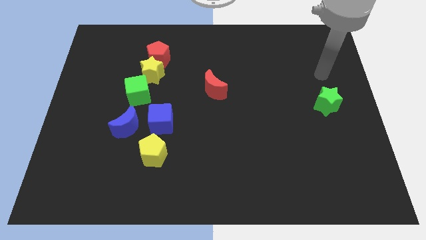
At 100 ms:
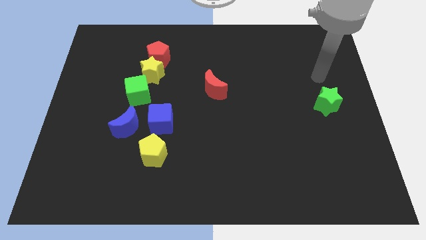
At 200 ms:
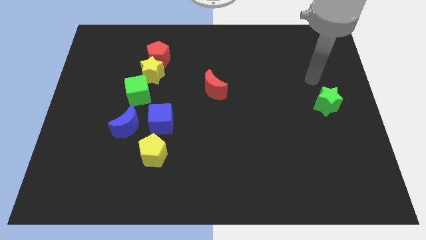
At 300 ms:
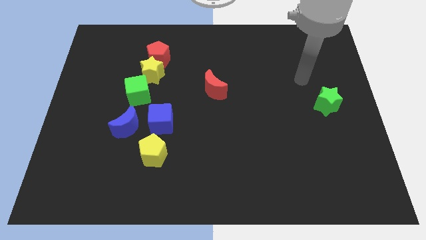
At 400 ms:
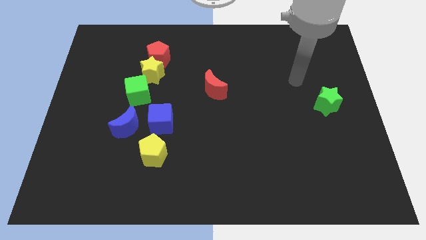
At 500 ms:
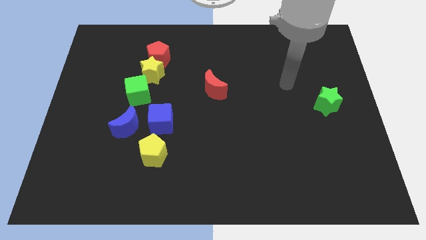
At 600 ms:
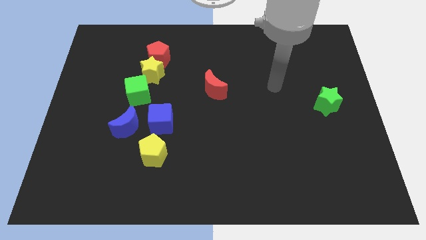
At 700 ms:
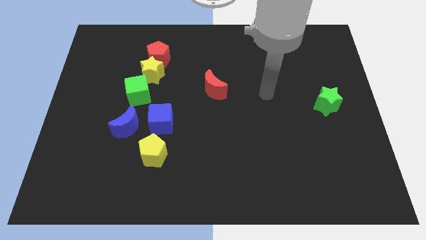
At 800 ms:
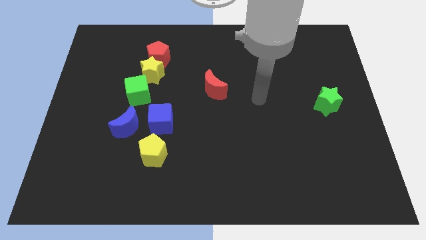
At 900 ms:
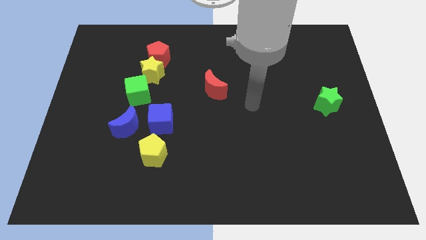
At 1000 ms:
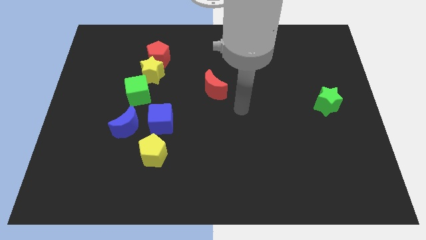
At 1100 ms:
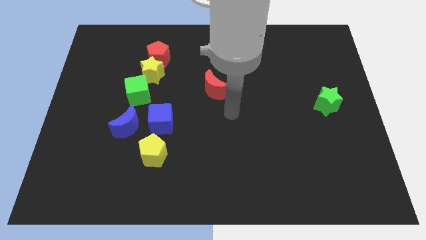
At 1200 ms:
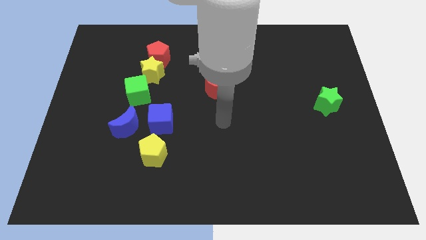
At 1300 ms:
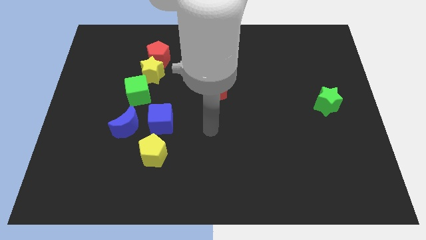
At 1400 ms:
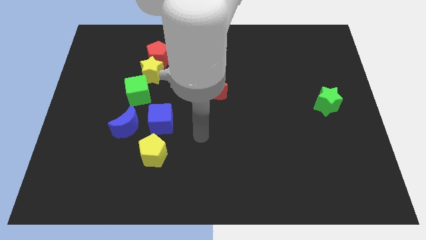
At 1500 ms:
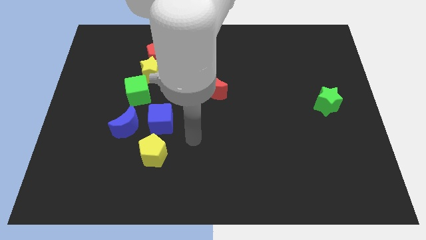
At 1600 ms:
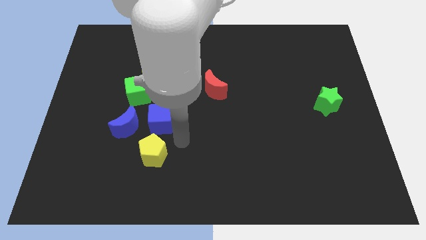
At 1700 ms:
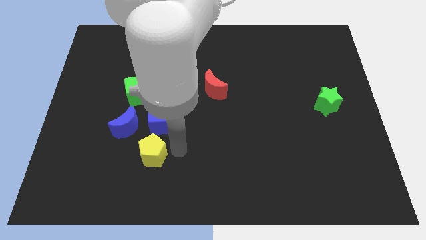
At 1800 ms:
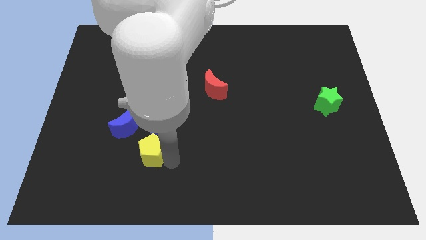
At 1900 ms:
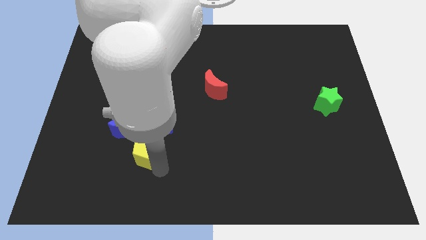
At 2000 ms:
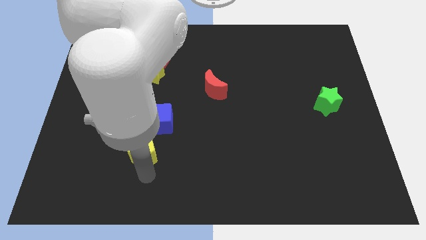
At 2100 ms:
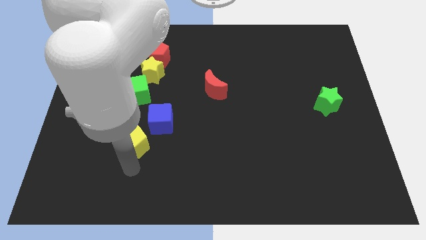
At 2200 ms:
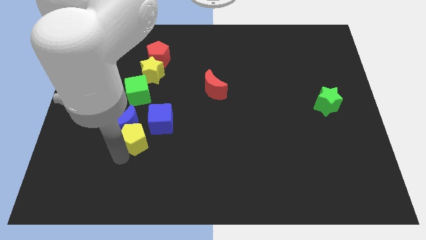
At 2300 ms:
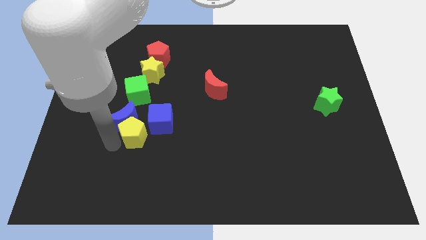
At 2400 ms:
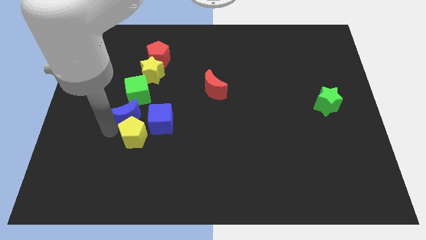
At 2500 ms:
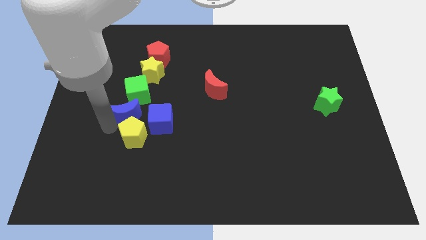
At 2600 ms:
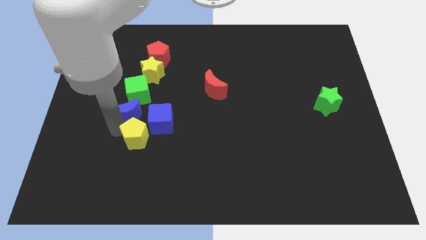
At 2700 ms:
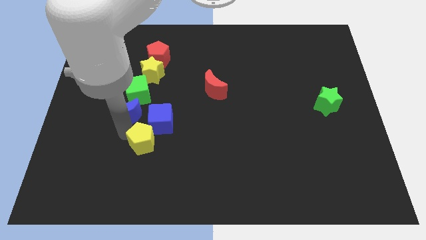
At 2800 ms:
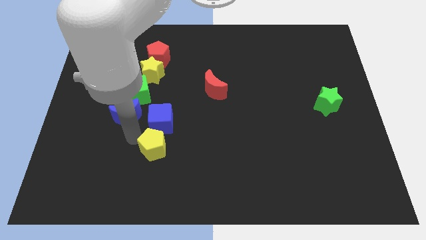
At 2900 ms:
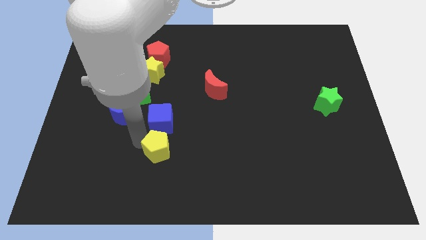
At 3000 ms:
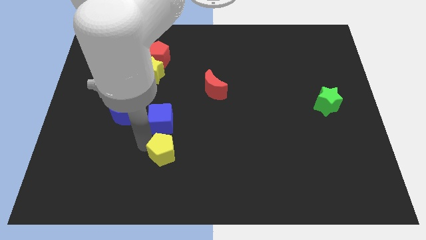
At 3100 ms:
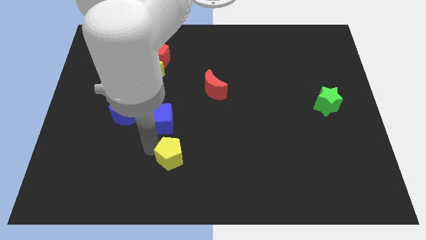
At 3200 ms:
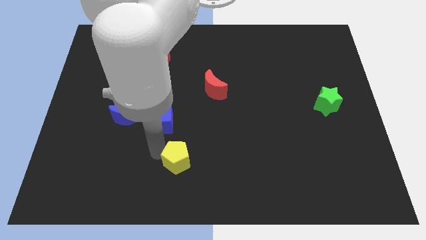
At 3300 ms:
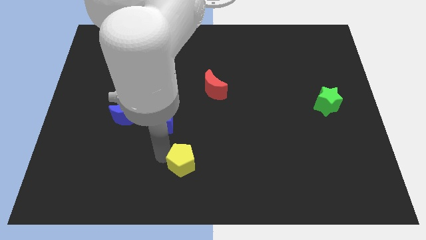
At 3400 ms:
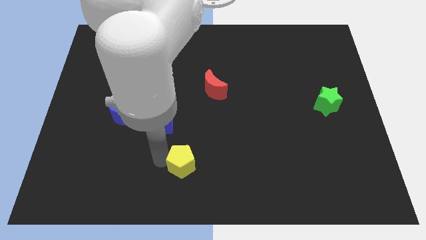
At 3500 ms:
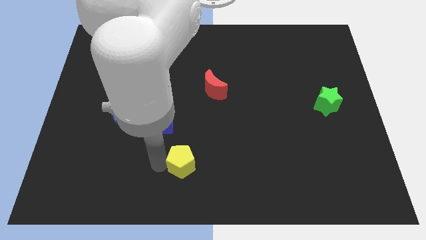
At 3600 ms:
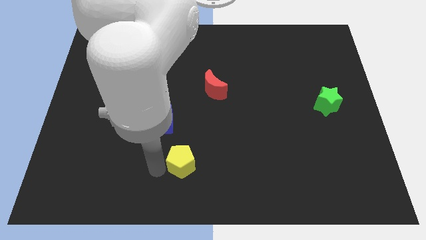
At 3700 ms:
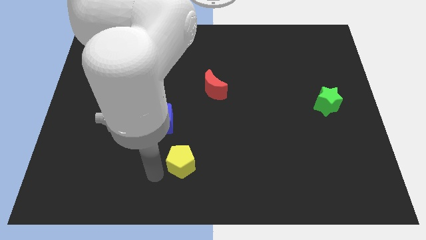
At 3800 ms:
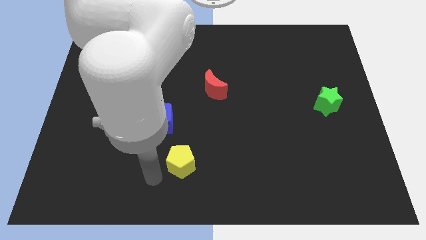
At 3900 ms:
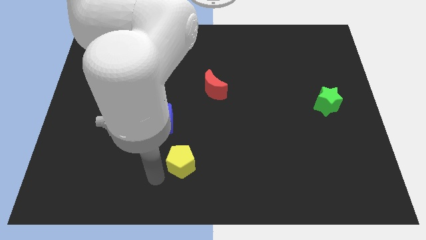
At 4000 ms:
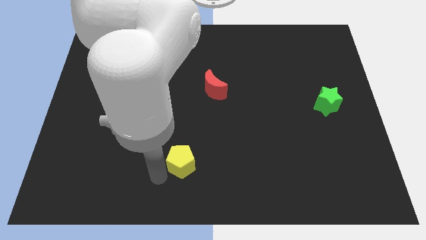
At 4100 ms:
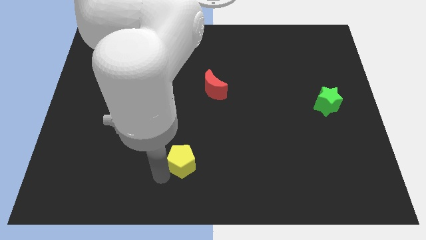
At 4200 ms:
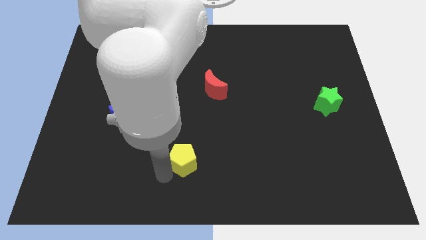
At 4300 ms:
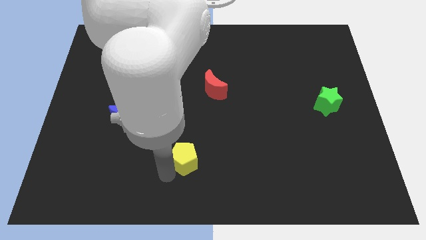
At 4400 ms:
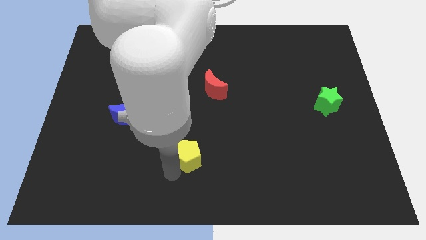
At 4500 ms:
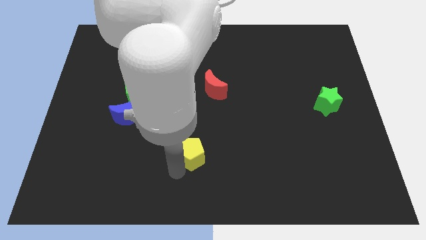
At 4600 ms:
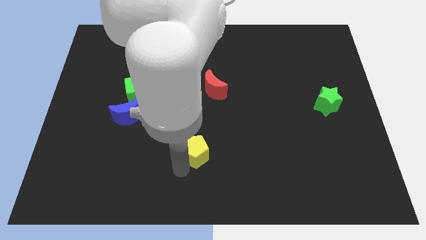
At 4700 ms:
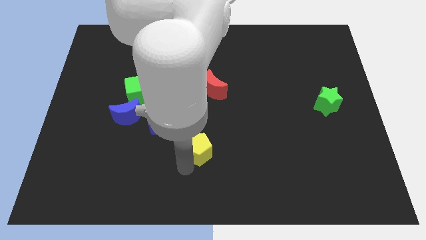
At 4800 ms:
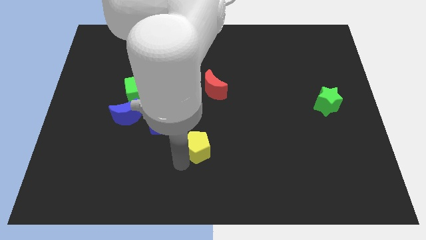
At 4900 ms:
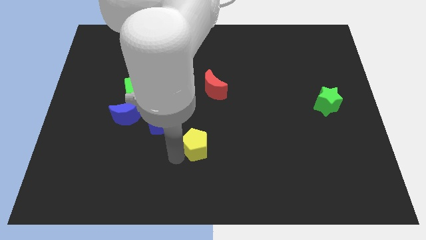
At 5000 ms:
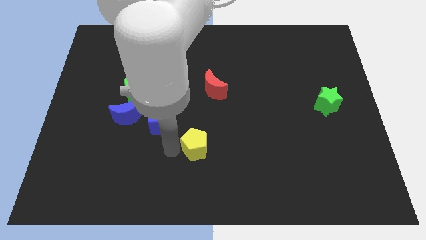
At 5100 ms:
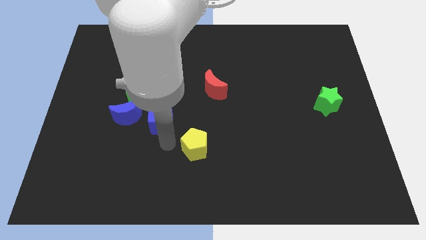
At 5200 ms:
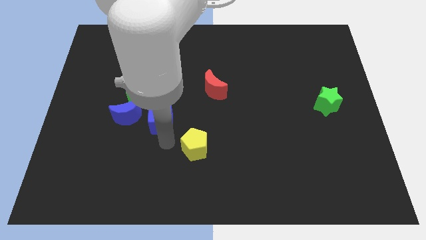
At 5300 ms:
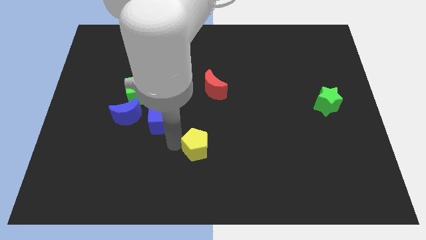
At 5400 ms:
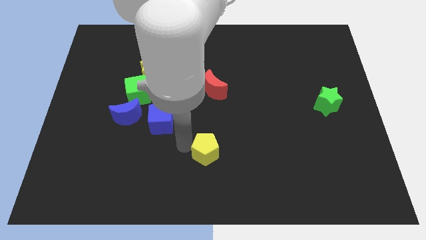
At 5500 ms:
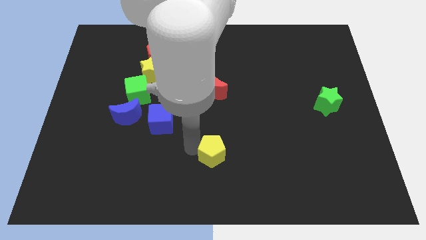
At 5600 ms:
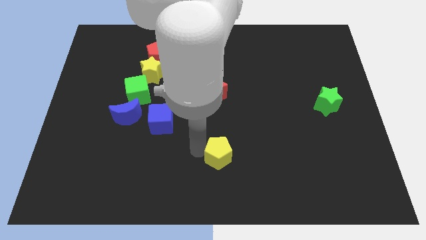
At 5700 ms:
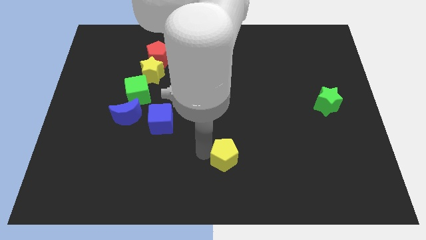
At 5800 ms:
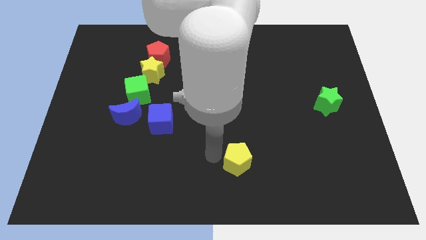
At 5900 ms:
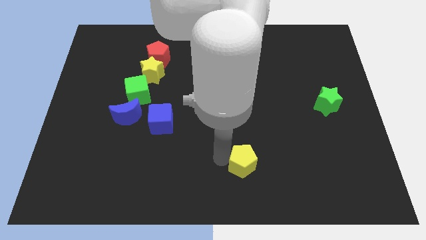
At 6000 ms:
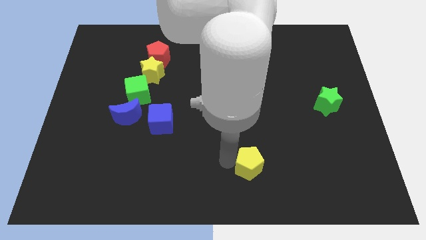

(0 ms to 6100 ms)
slide the yellow pentagon to the right

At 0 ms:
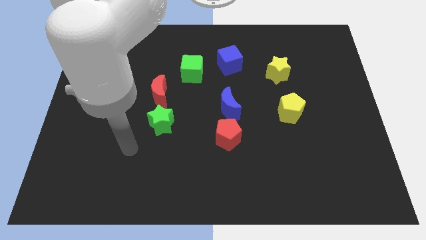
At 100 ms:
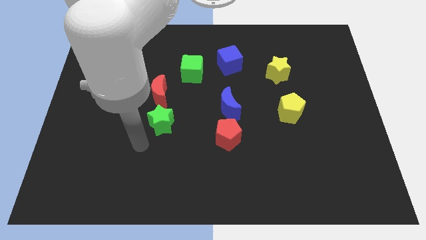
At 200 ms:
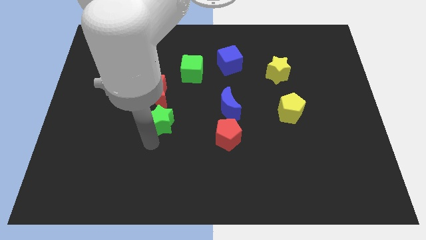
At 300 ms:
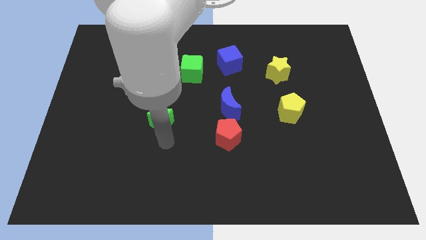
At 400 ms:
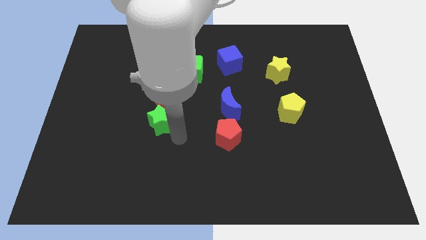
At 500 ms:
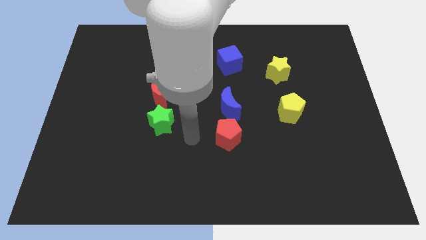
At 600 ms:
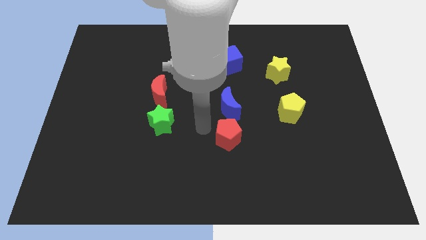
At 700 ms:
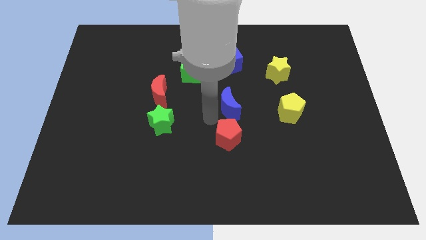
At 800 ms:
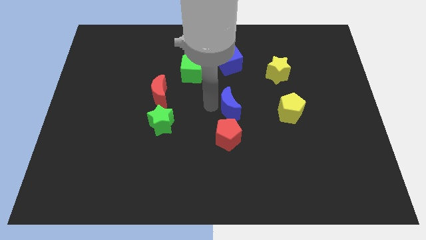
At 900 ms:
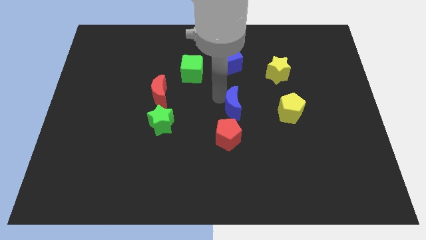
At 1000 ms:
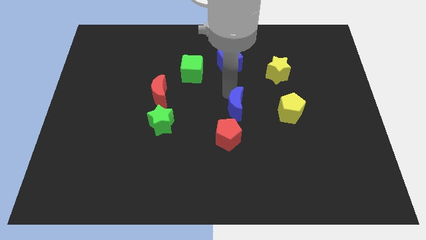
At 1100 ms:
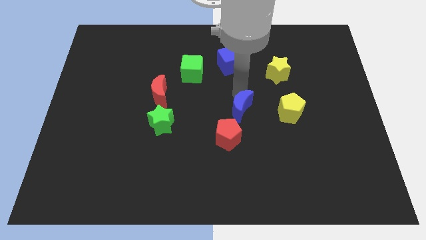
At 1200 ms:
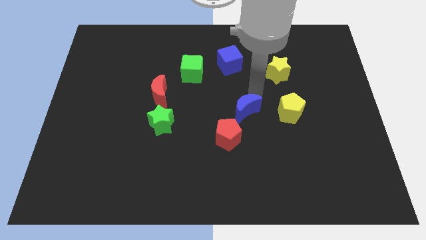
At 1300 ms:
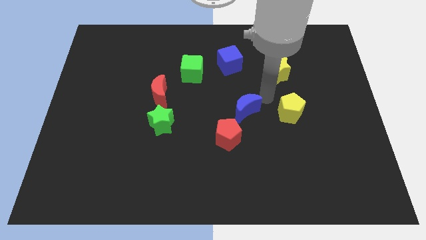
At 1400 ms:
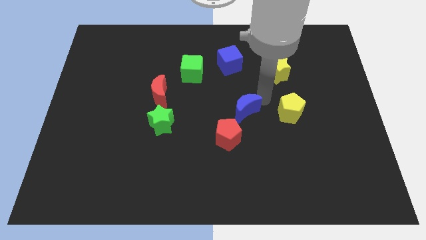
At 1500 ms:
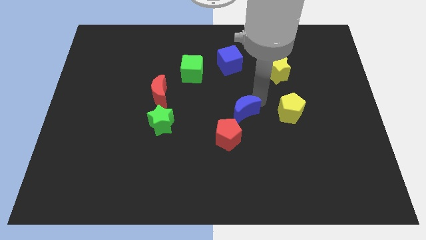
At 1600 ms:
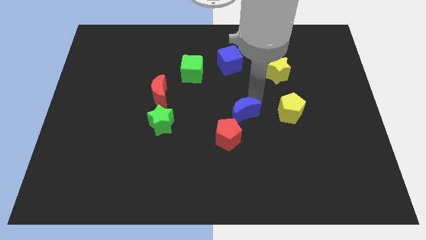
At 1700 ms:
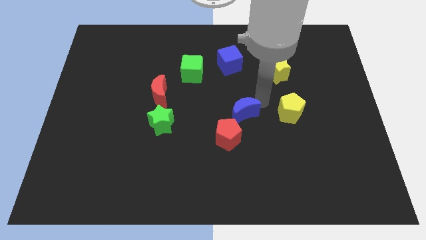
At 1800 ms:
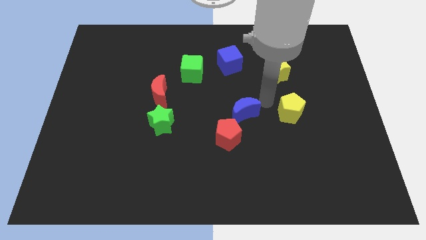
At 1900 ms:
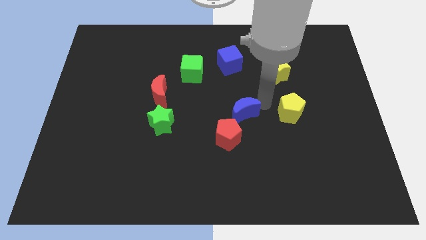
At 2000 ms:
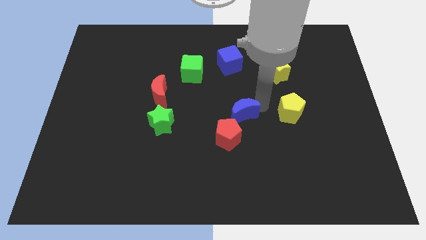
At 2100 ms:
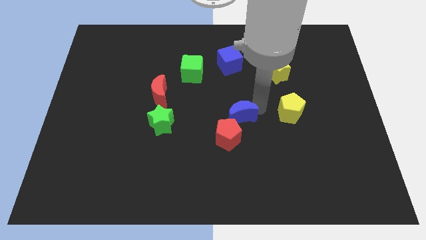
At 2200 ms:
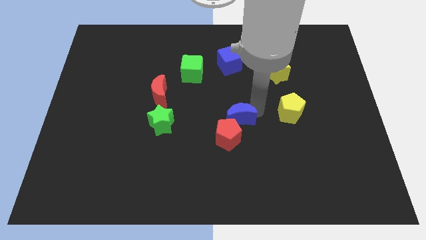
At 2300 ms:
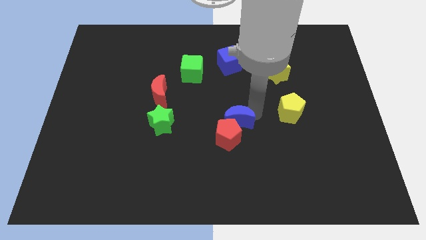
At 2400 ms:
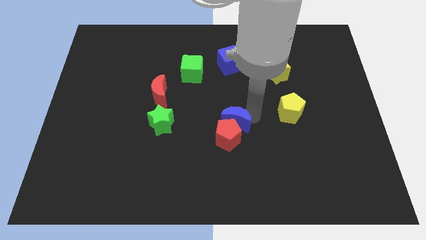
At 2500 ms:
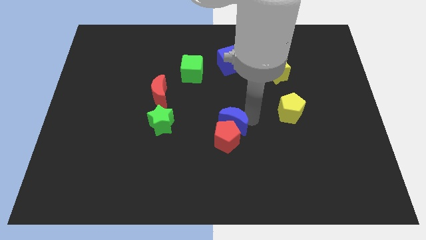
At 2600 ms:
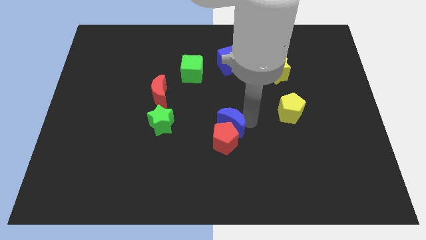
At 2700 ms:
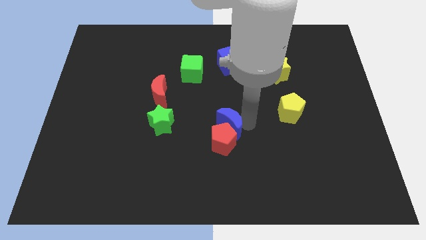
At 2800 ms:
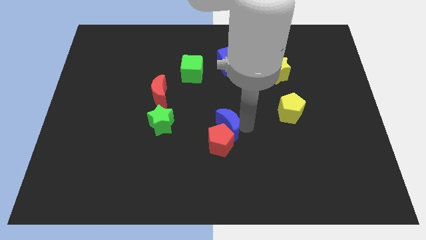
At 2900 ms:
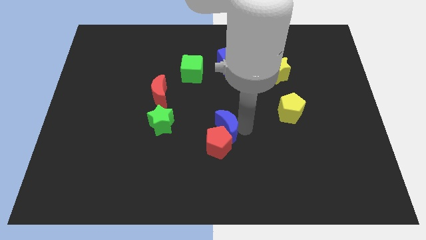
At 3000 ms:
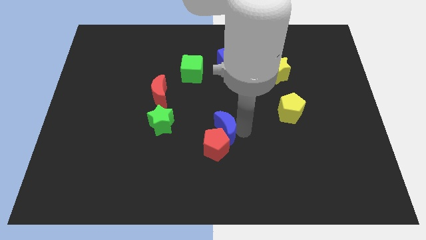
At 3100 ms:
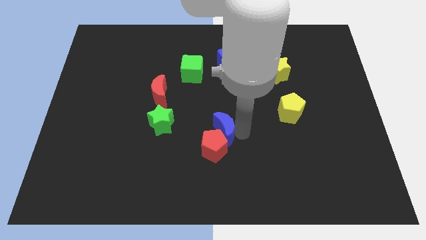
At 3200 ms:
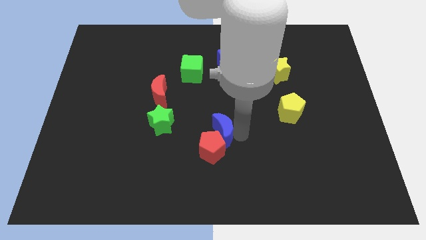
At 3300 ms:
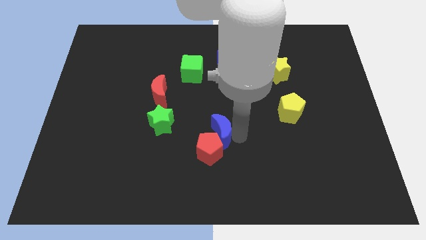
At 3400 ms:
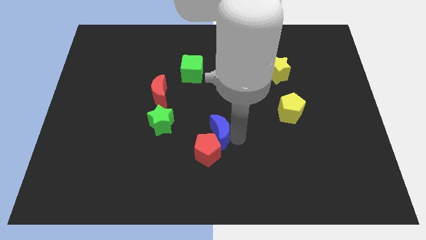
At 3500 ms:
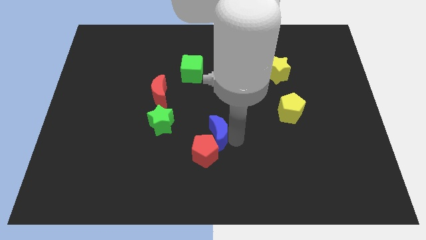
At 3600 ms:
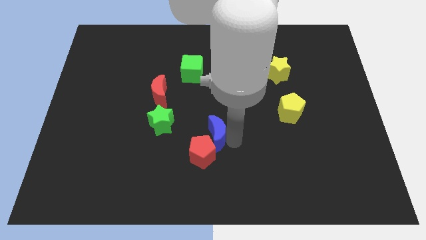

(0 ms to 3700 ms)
slide the blue moon downwards and left diagonally somewhat
